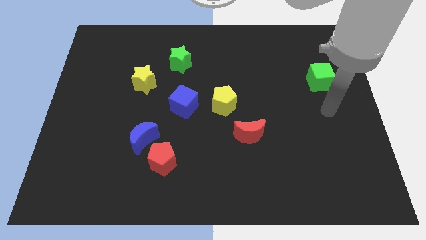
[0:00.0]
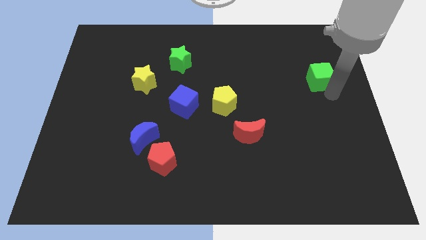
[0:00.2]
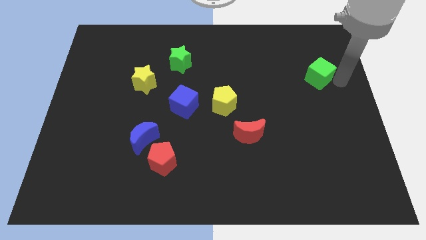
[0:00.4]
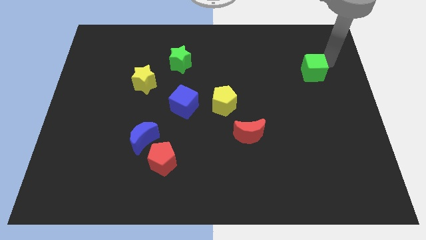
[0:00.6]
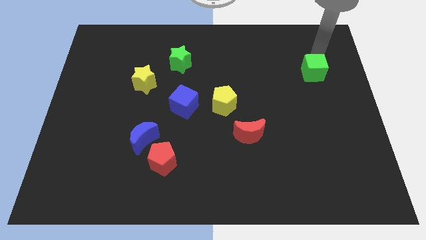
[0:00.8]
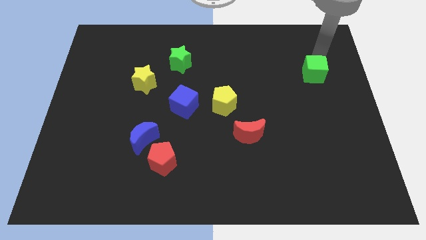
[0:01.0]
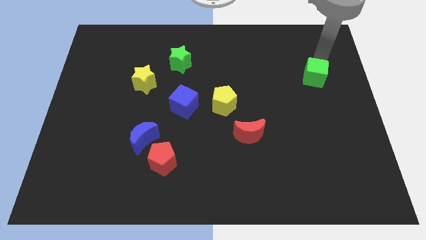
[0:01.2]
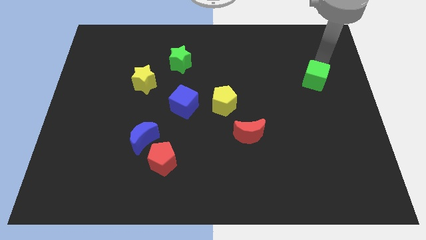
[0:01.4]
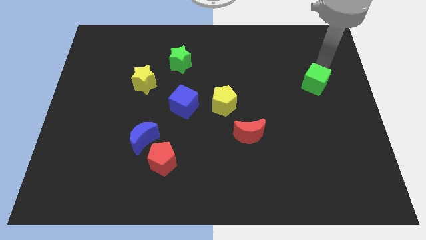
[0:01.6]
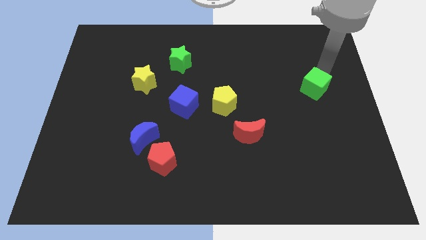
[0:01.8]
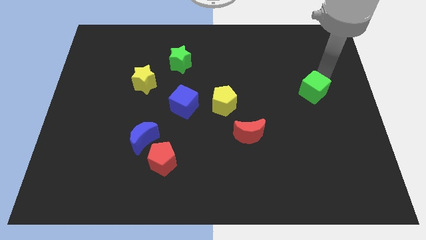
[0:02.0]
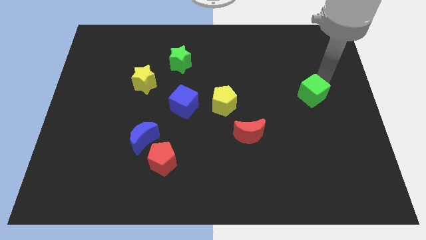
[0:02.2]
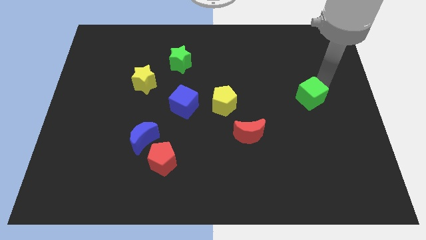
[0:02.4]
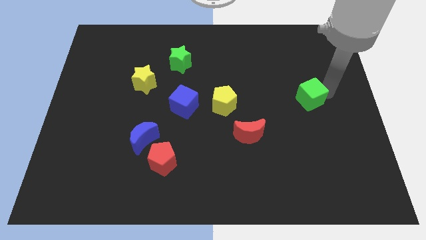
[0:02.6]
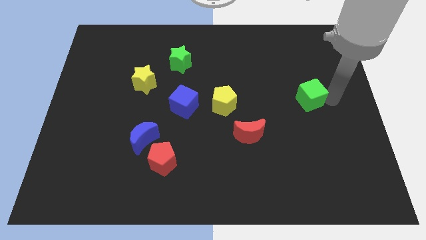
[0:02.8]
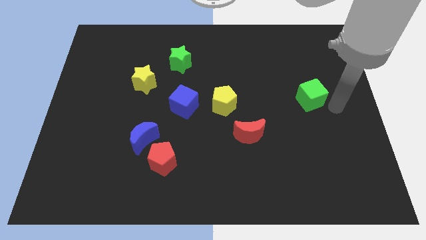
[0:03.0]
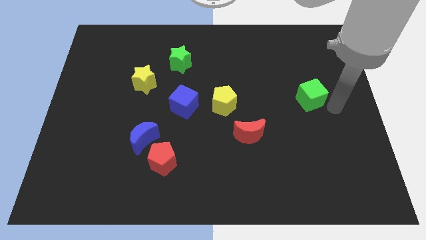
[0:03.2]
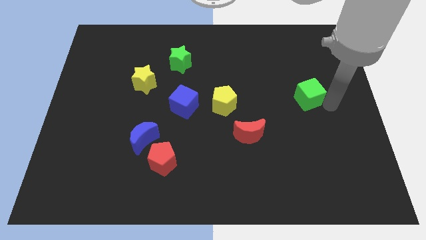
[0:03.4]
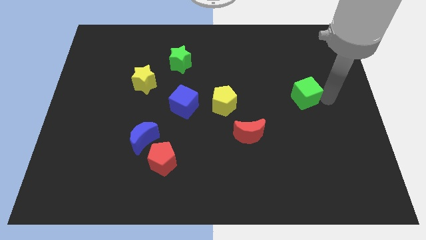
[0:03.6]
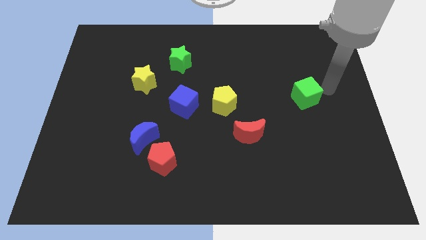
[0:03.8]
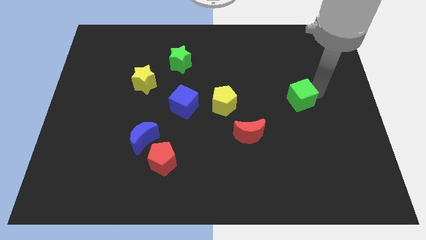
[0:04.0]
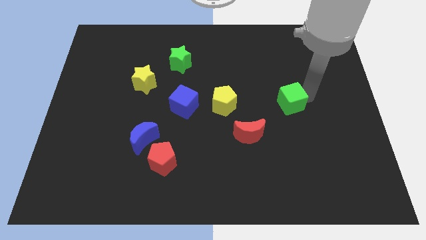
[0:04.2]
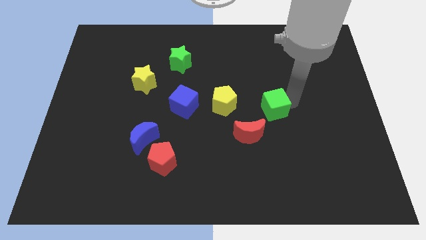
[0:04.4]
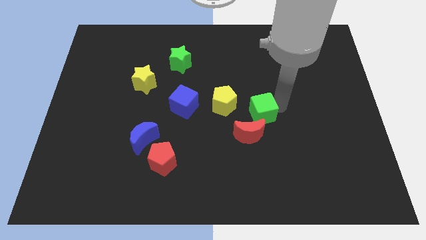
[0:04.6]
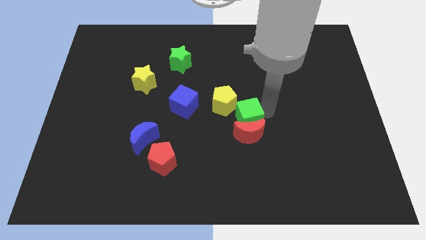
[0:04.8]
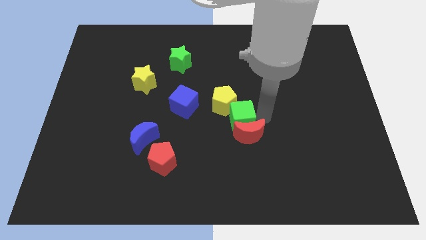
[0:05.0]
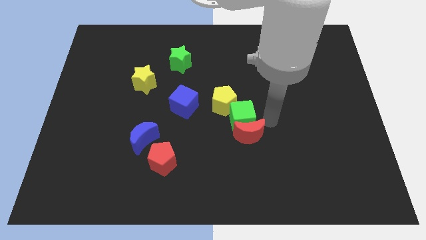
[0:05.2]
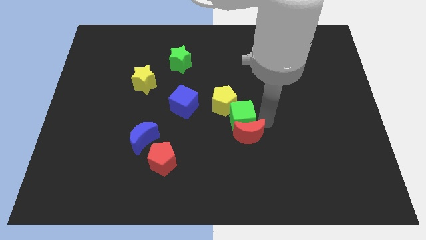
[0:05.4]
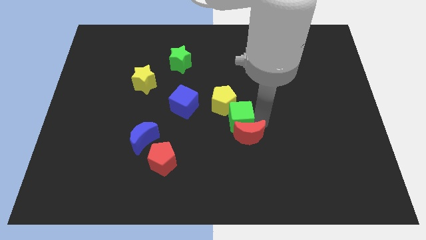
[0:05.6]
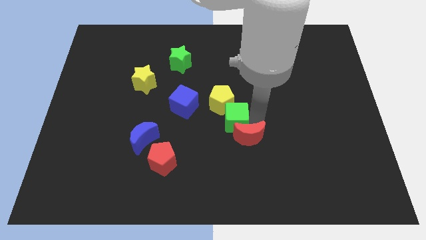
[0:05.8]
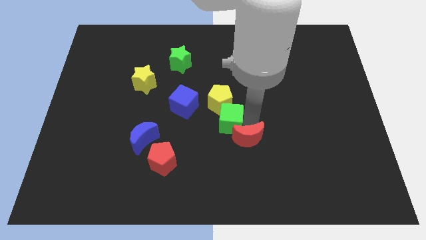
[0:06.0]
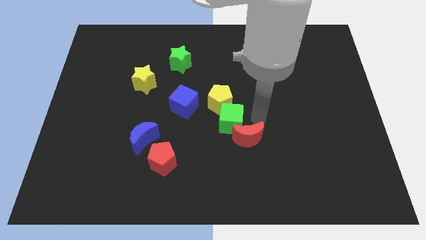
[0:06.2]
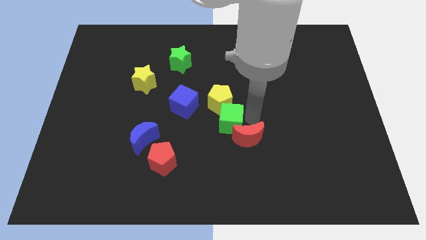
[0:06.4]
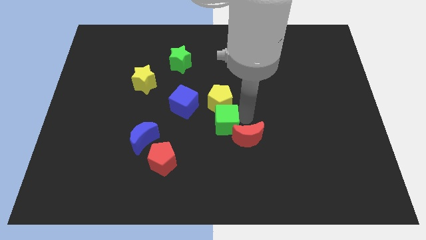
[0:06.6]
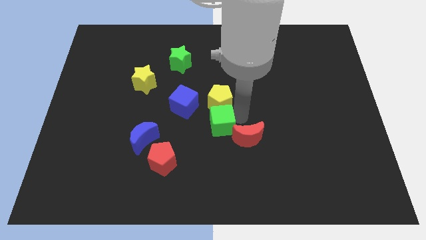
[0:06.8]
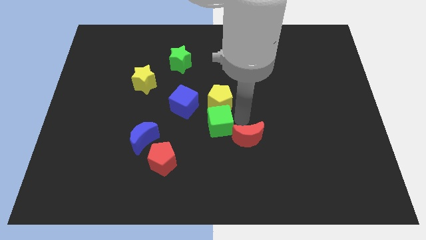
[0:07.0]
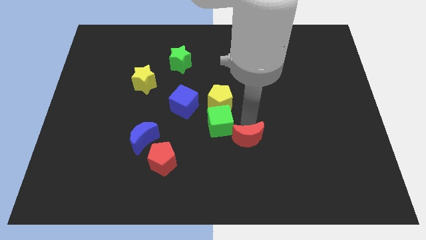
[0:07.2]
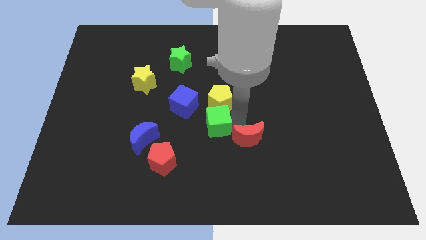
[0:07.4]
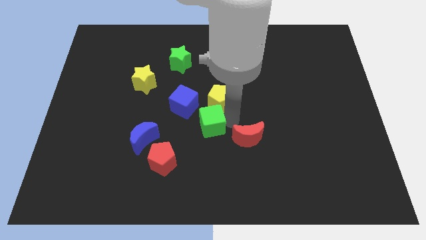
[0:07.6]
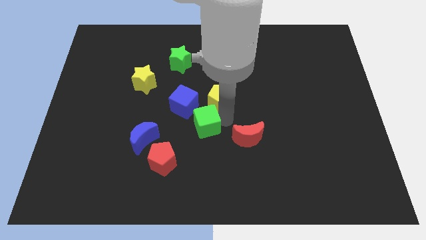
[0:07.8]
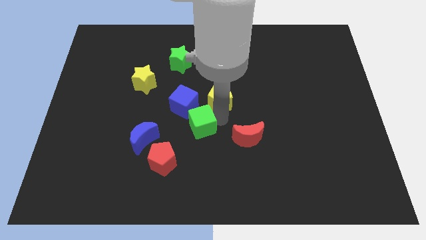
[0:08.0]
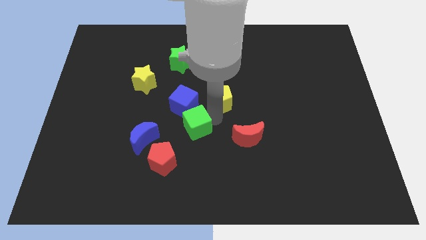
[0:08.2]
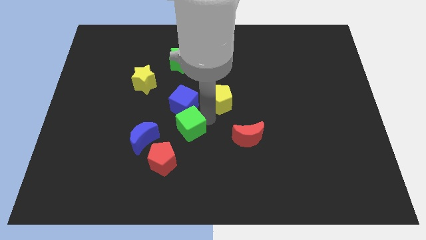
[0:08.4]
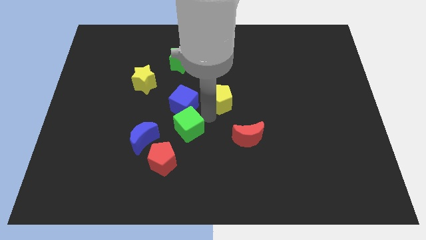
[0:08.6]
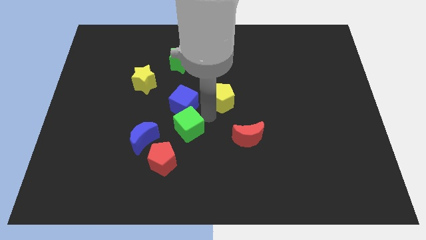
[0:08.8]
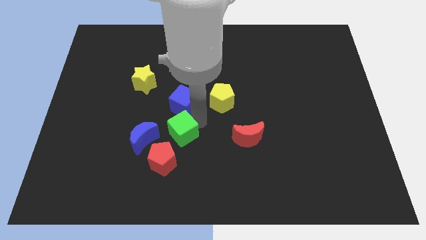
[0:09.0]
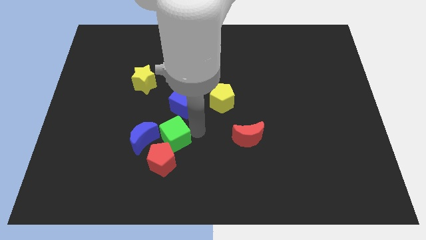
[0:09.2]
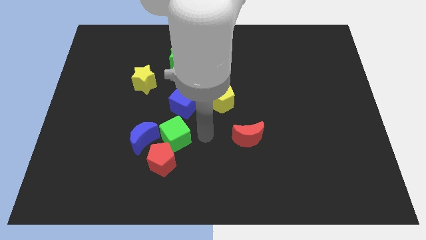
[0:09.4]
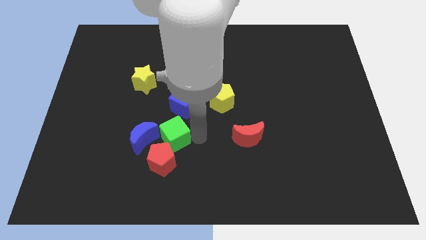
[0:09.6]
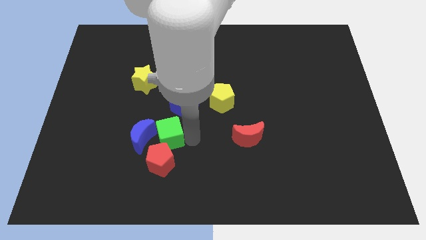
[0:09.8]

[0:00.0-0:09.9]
move the green cube towards the blue moon

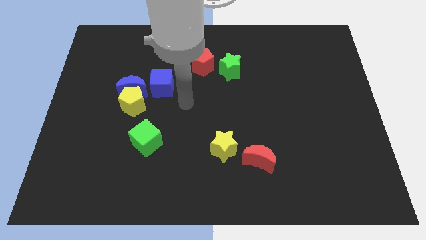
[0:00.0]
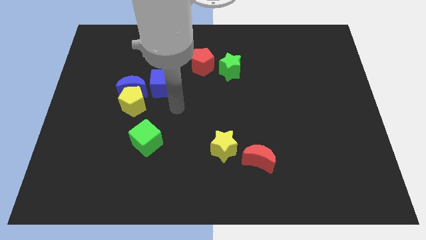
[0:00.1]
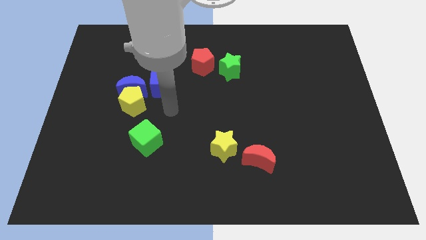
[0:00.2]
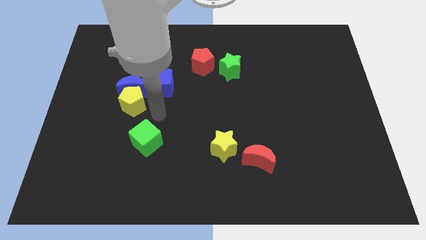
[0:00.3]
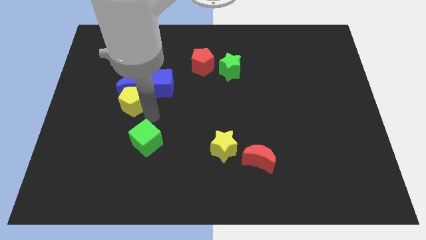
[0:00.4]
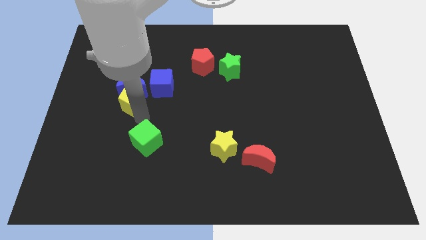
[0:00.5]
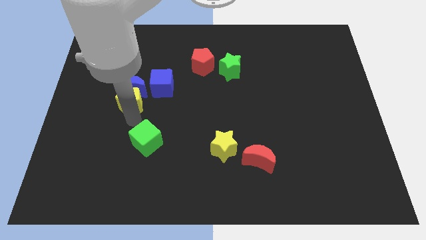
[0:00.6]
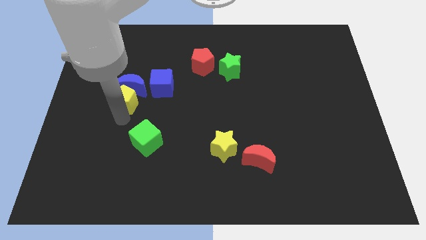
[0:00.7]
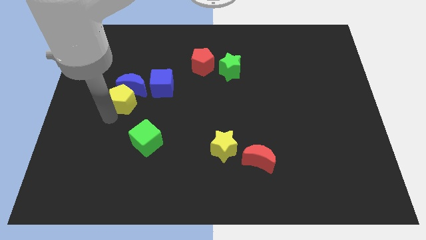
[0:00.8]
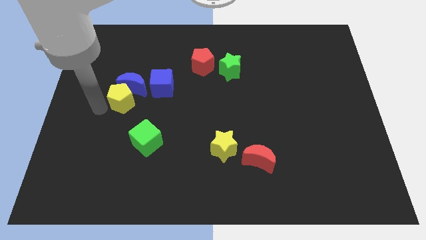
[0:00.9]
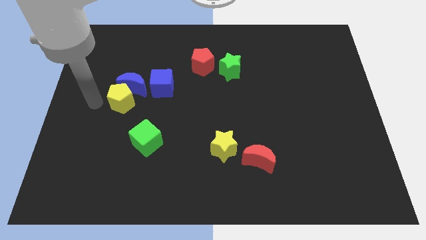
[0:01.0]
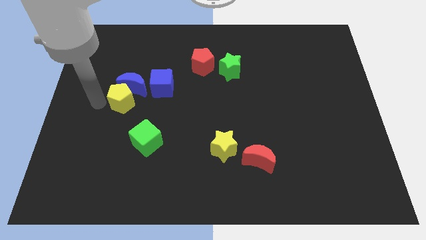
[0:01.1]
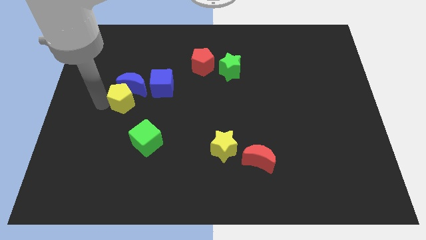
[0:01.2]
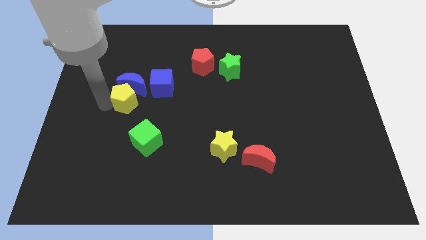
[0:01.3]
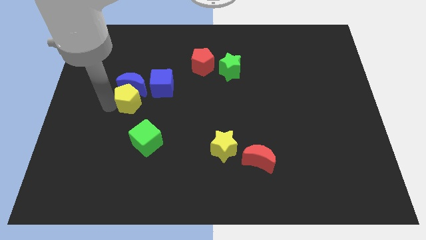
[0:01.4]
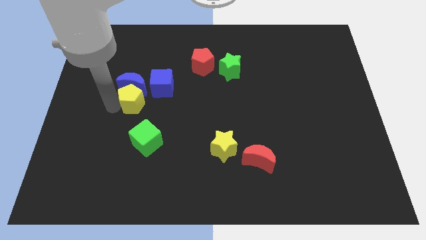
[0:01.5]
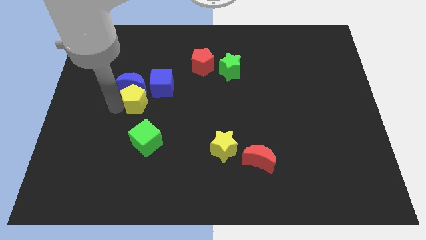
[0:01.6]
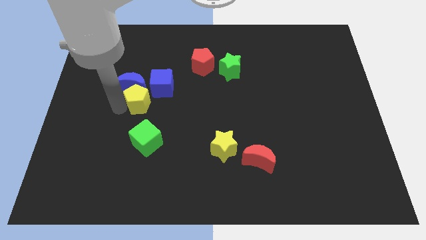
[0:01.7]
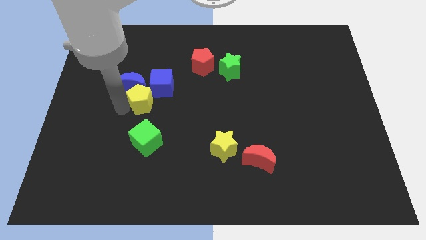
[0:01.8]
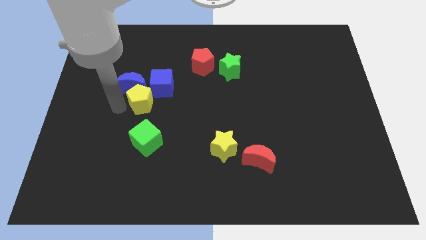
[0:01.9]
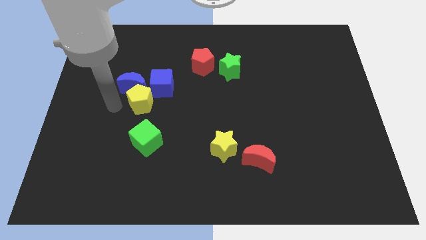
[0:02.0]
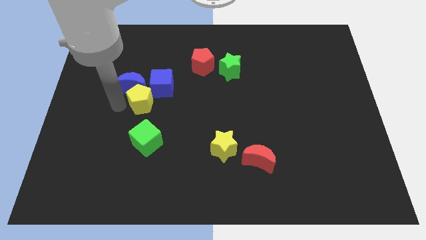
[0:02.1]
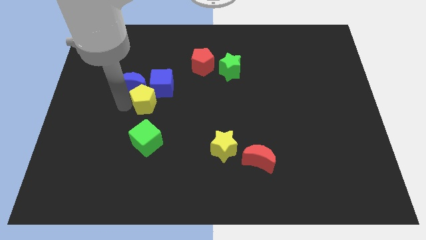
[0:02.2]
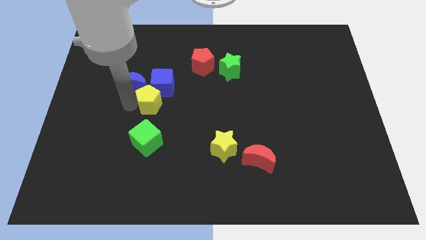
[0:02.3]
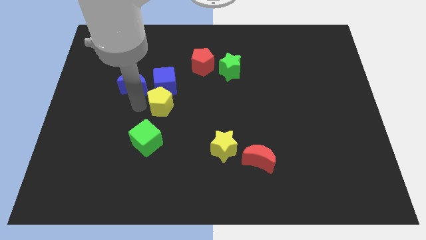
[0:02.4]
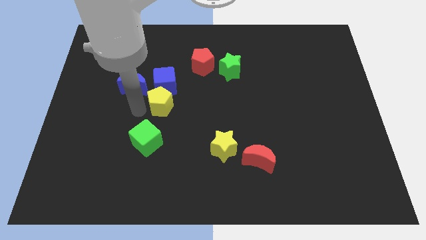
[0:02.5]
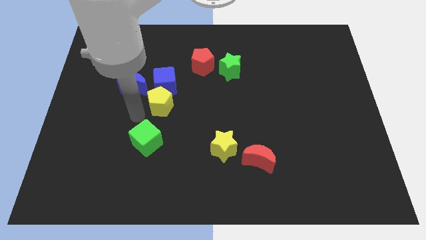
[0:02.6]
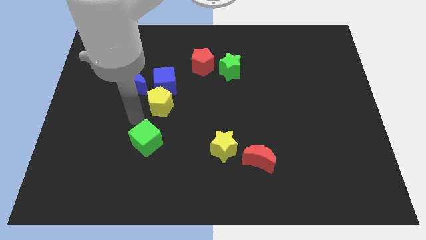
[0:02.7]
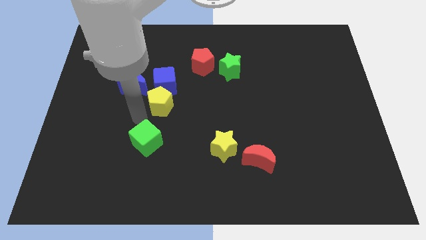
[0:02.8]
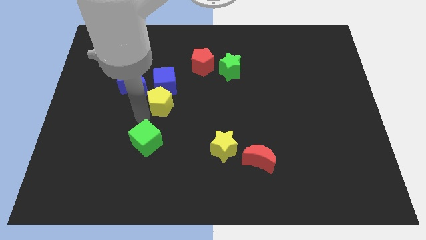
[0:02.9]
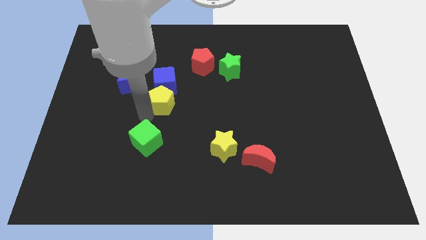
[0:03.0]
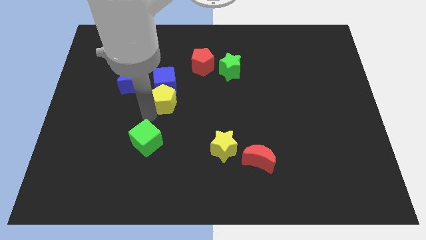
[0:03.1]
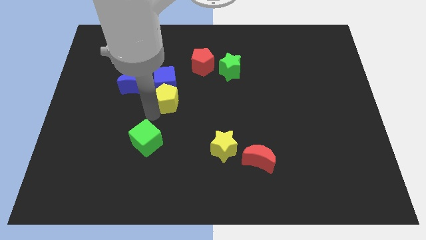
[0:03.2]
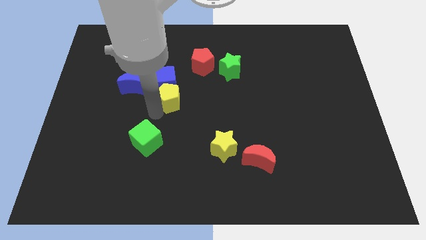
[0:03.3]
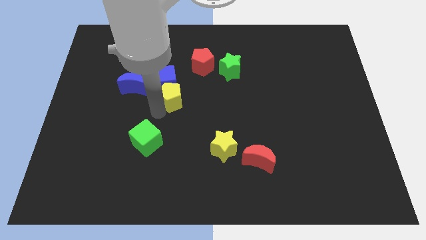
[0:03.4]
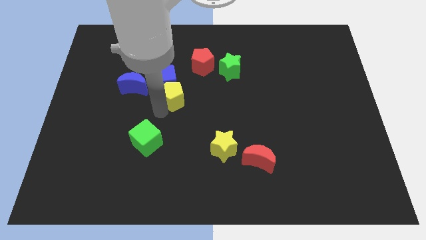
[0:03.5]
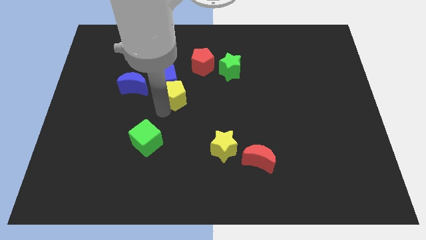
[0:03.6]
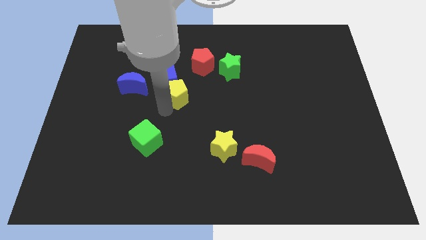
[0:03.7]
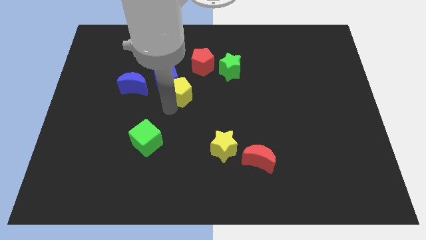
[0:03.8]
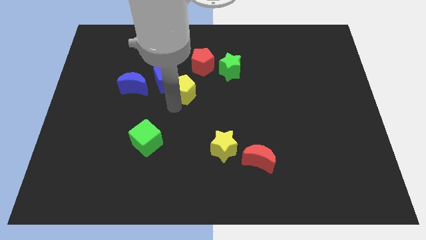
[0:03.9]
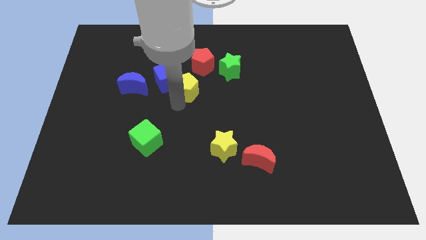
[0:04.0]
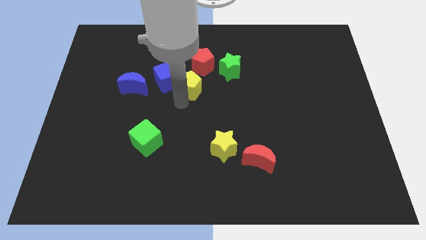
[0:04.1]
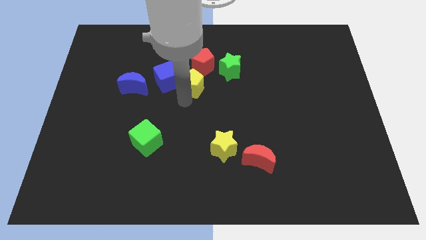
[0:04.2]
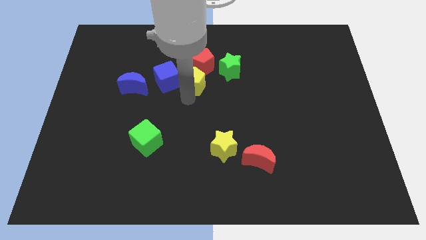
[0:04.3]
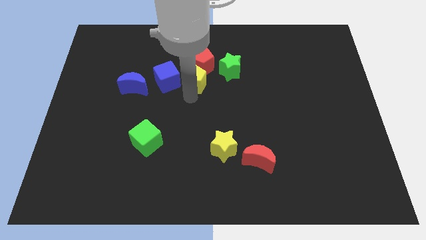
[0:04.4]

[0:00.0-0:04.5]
put the yellow pentagon to the red pentagon
